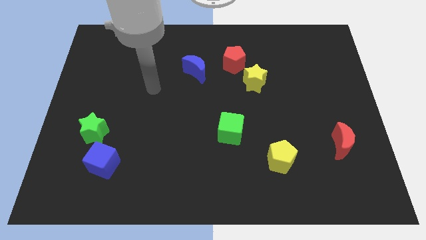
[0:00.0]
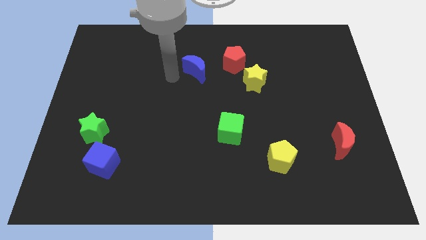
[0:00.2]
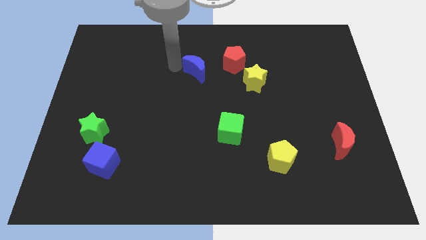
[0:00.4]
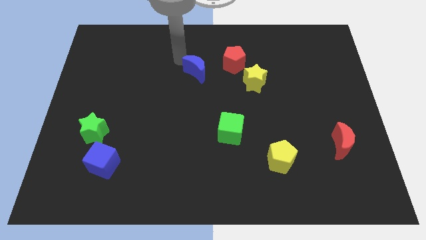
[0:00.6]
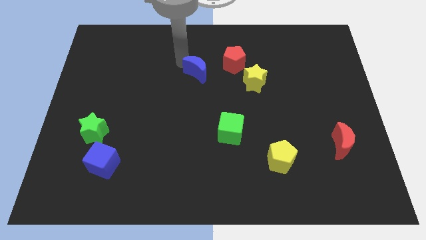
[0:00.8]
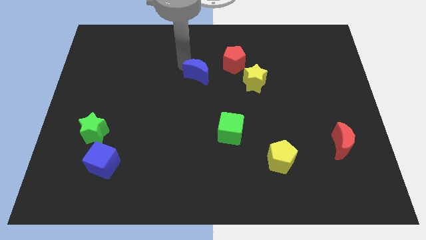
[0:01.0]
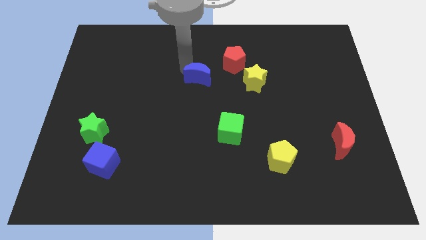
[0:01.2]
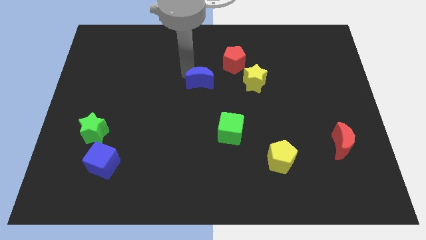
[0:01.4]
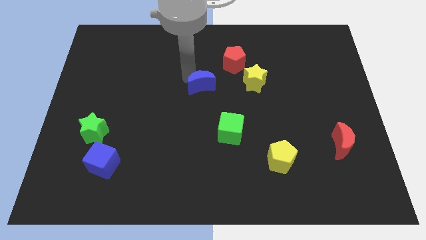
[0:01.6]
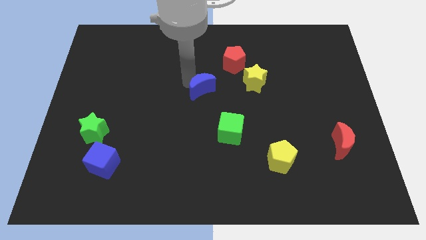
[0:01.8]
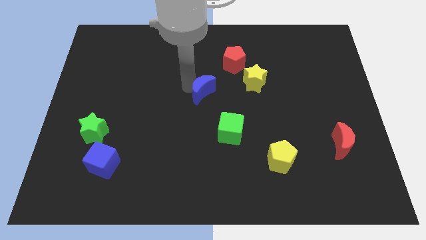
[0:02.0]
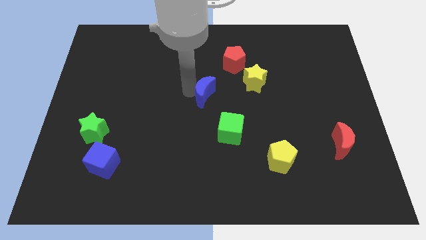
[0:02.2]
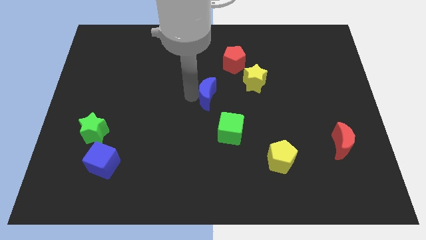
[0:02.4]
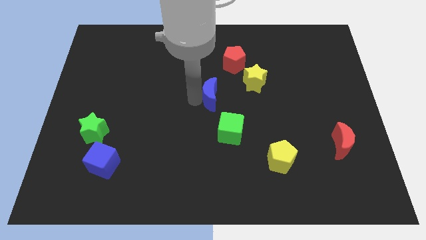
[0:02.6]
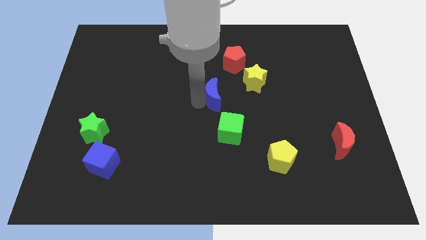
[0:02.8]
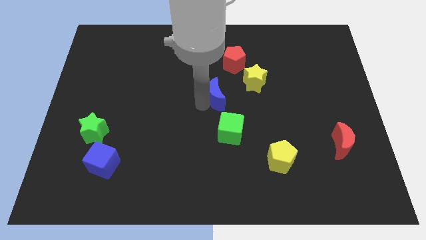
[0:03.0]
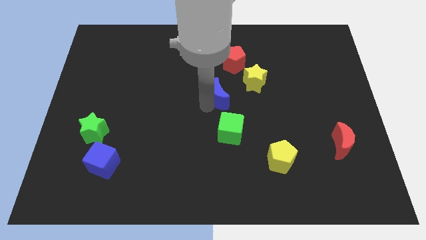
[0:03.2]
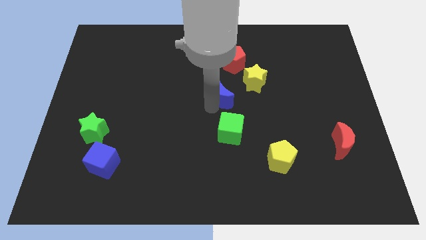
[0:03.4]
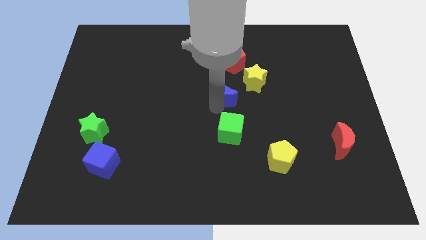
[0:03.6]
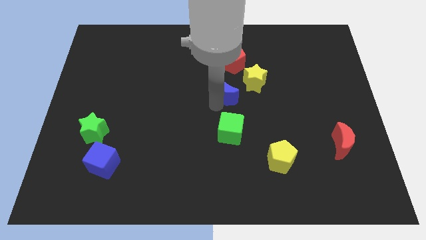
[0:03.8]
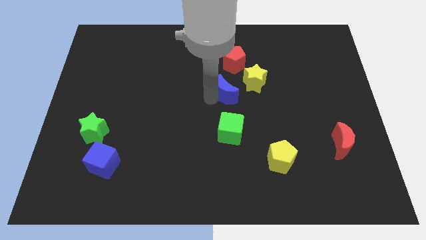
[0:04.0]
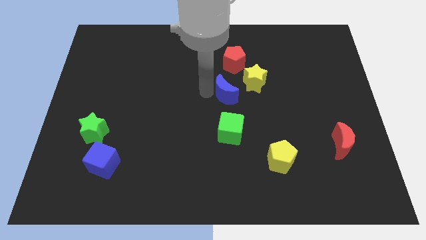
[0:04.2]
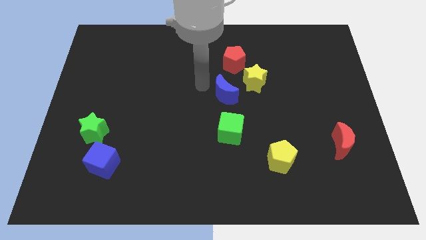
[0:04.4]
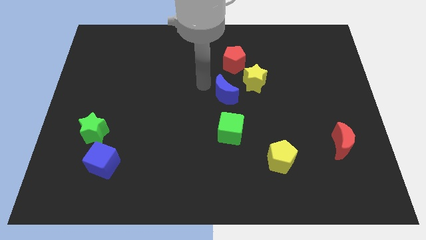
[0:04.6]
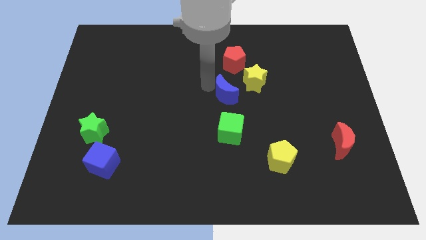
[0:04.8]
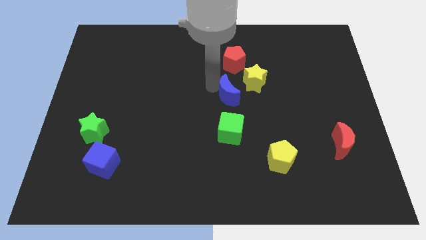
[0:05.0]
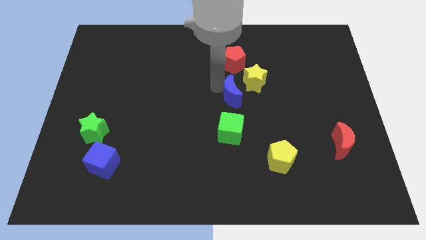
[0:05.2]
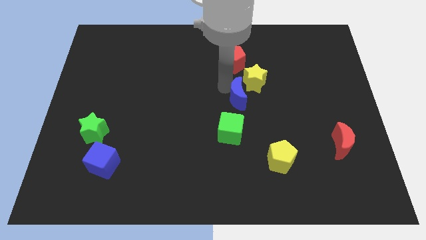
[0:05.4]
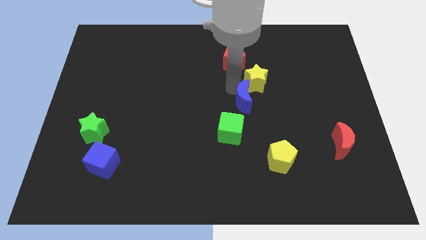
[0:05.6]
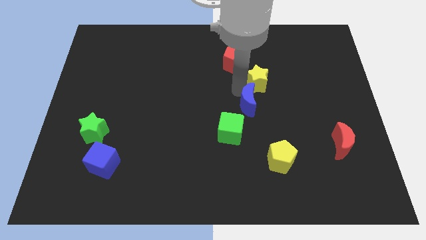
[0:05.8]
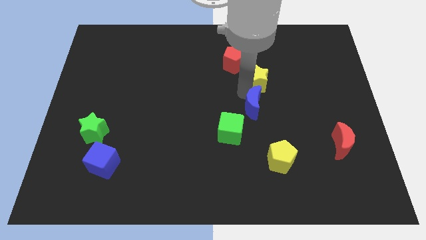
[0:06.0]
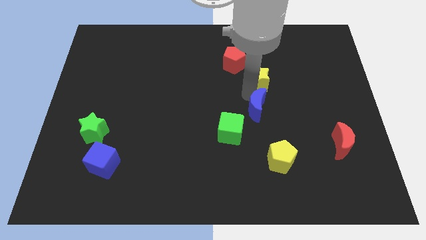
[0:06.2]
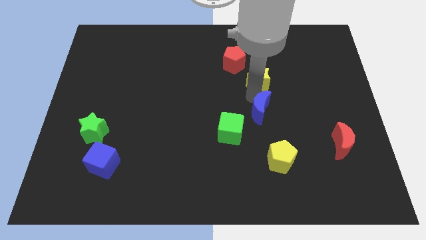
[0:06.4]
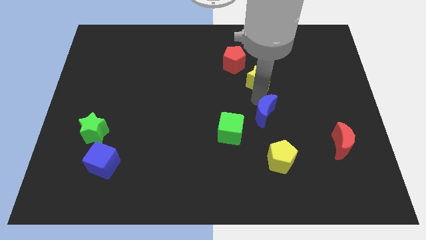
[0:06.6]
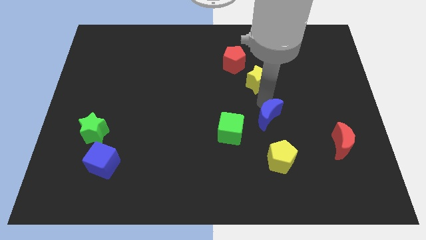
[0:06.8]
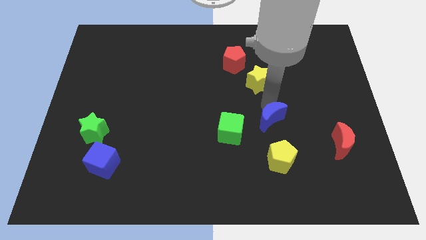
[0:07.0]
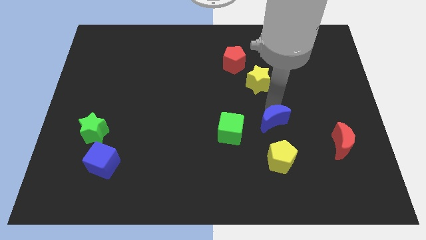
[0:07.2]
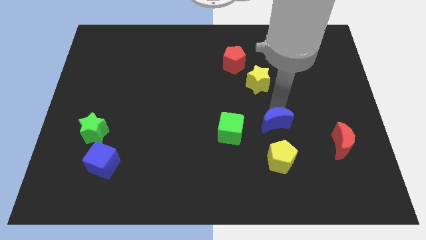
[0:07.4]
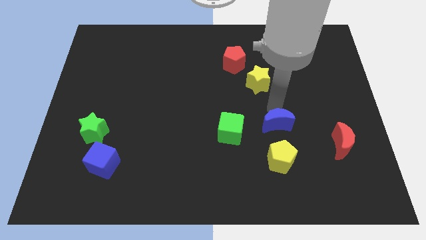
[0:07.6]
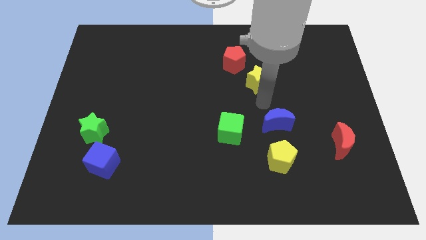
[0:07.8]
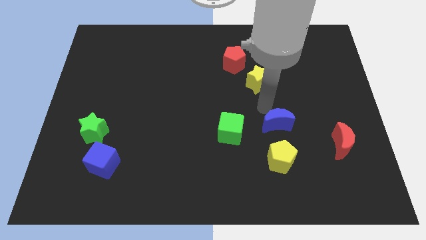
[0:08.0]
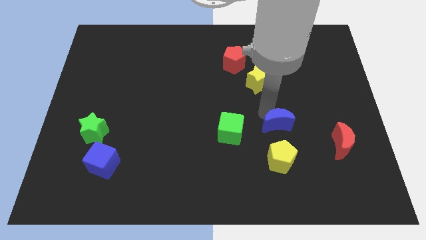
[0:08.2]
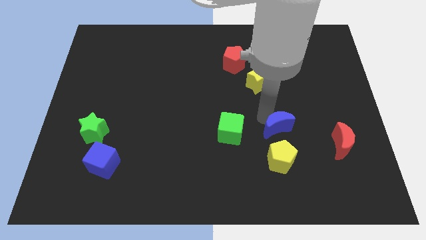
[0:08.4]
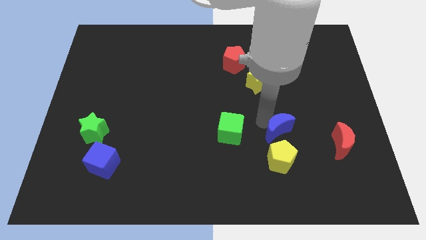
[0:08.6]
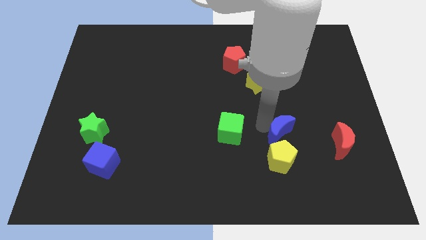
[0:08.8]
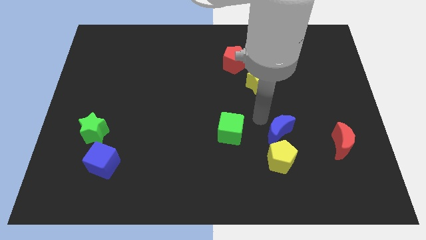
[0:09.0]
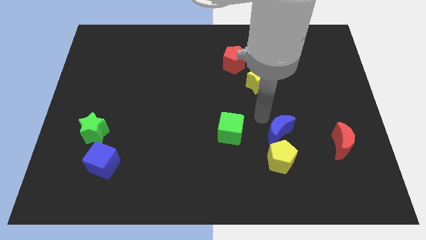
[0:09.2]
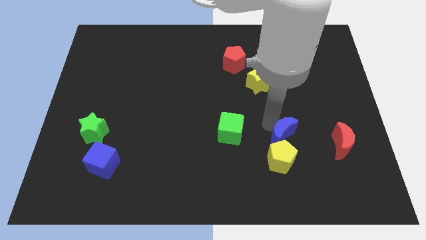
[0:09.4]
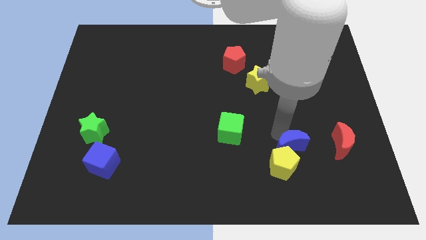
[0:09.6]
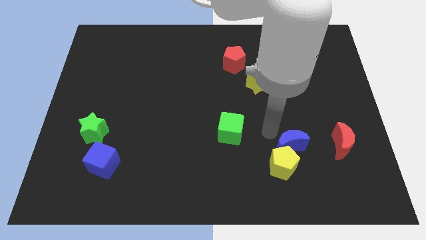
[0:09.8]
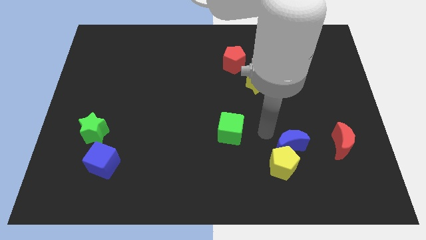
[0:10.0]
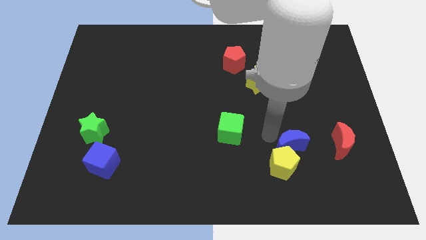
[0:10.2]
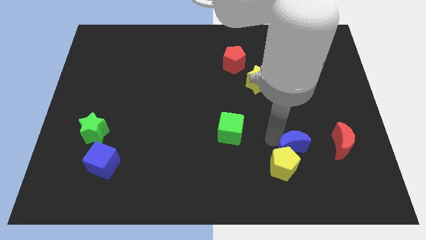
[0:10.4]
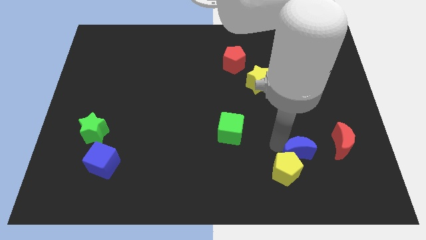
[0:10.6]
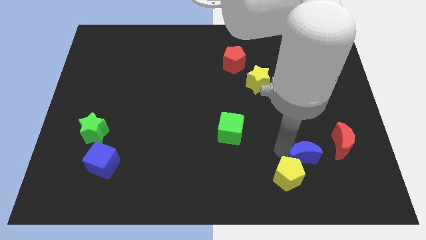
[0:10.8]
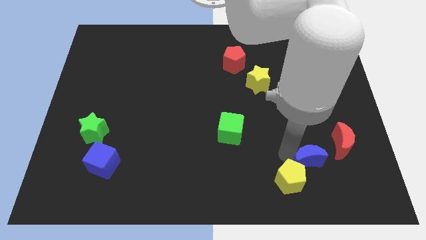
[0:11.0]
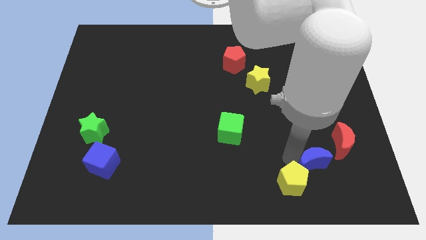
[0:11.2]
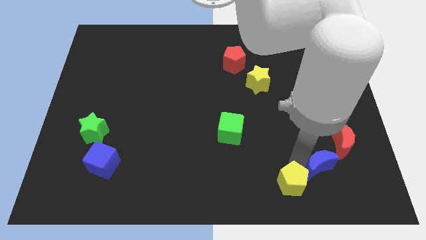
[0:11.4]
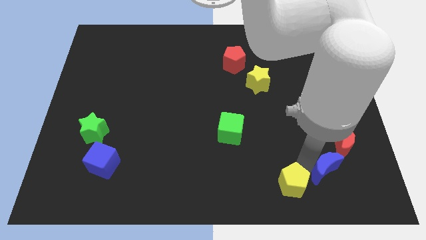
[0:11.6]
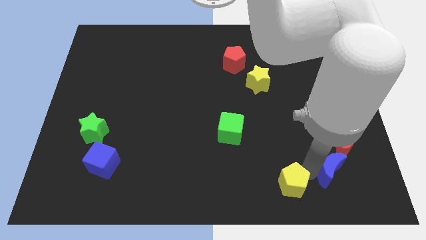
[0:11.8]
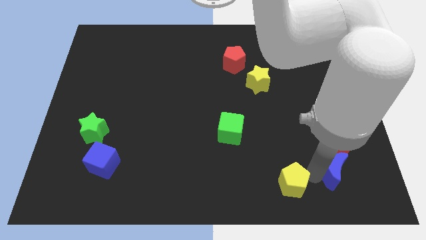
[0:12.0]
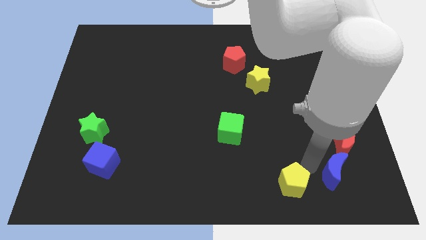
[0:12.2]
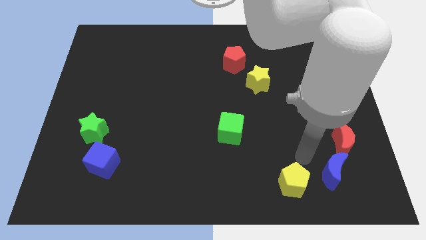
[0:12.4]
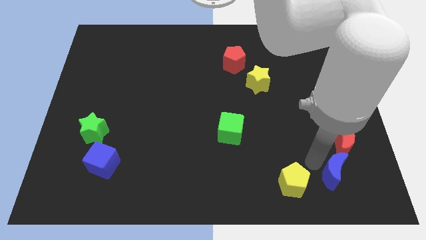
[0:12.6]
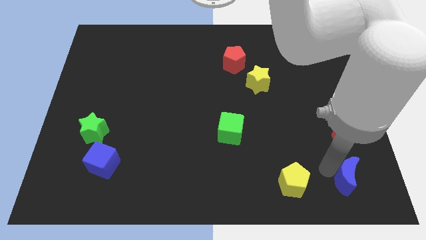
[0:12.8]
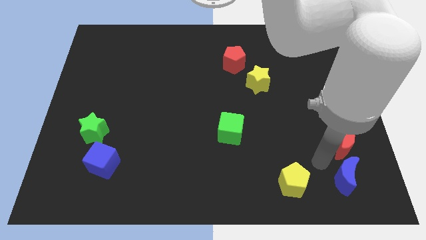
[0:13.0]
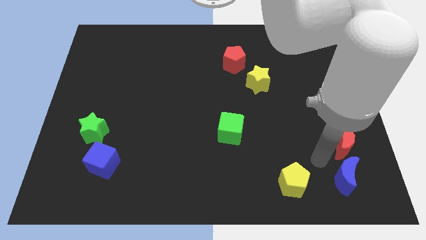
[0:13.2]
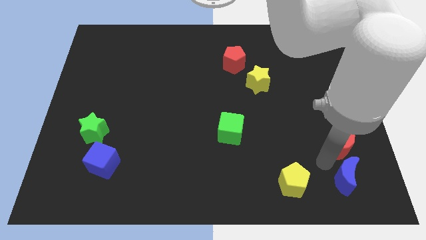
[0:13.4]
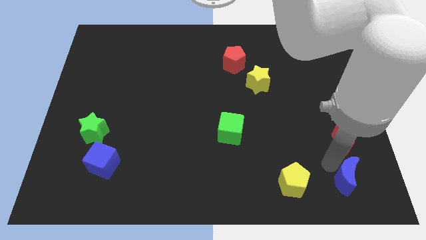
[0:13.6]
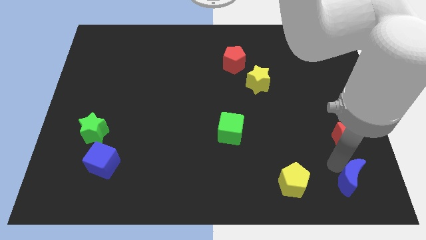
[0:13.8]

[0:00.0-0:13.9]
put the blue moon to the lower right corner
